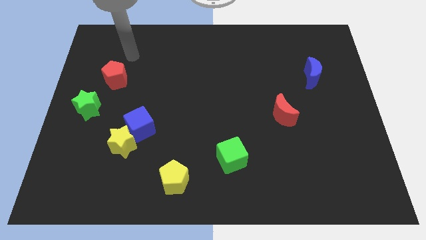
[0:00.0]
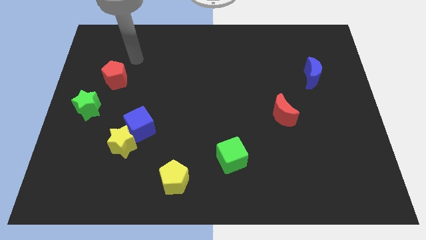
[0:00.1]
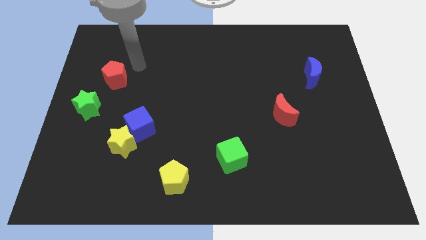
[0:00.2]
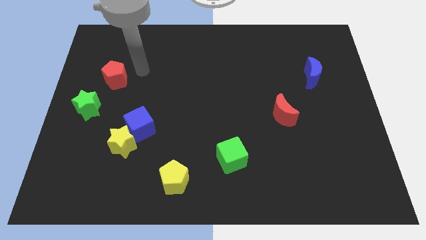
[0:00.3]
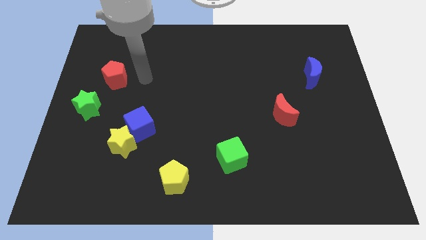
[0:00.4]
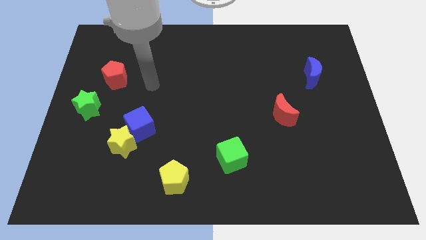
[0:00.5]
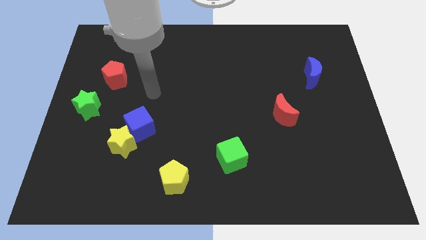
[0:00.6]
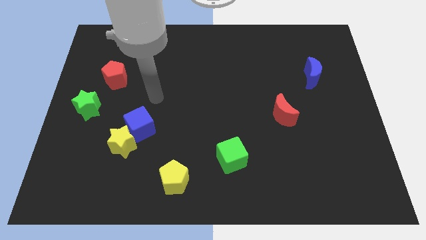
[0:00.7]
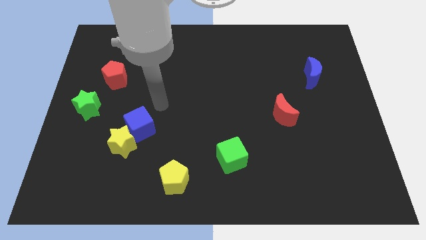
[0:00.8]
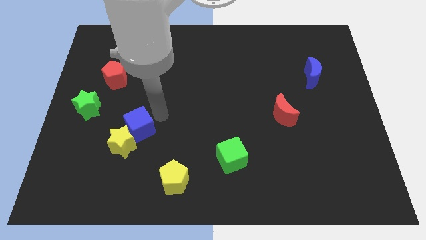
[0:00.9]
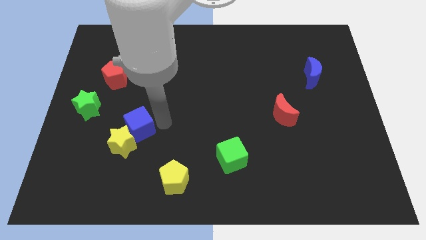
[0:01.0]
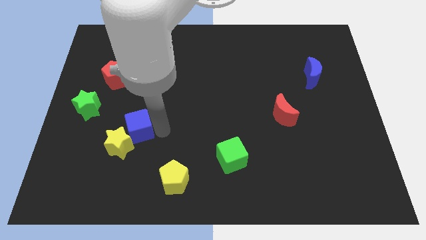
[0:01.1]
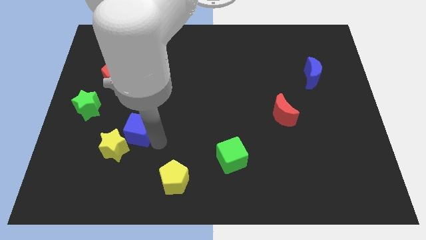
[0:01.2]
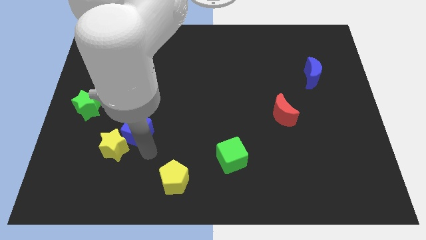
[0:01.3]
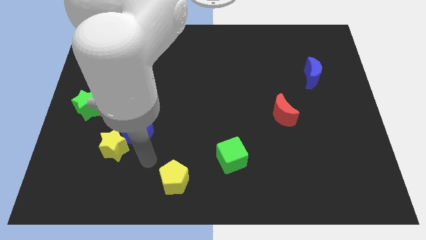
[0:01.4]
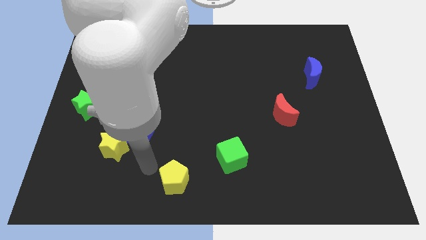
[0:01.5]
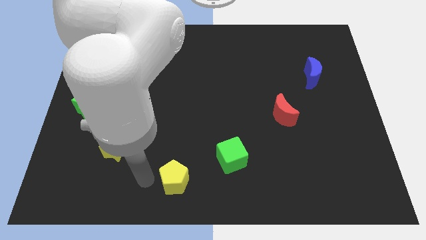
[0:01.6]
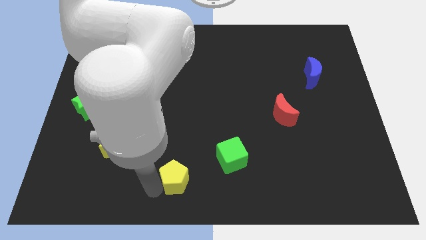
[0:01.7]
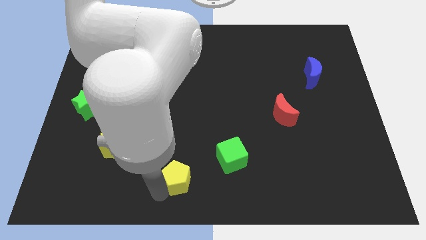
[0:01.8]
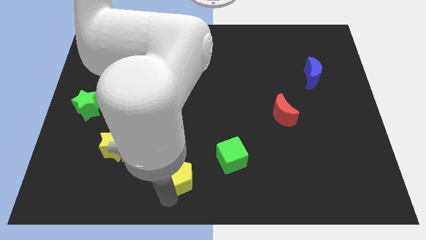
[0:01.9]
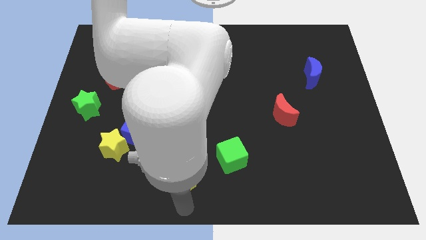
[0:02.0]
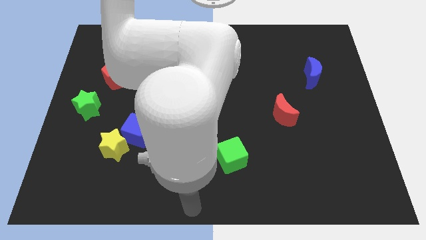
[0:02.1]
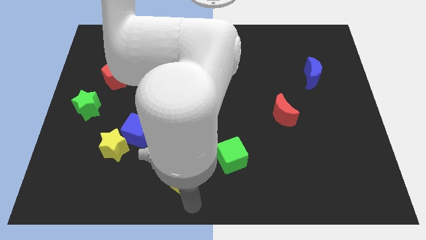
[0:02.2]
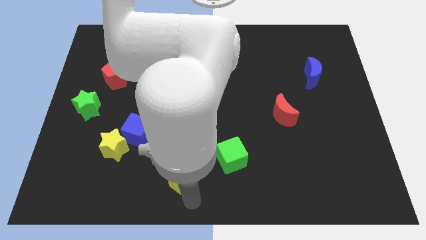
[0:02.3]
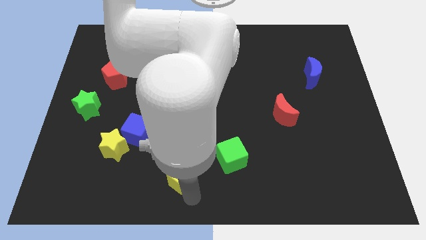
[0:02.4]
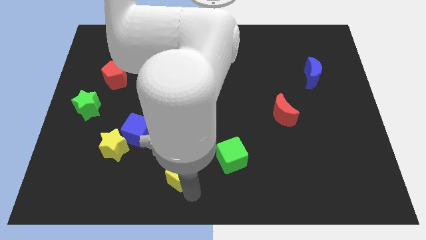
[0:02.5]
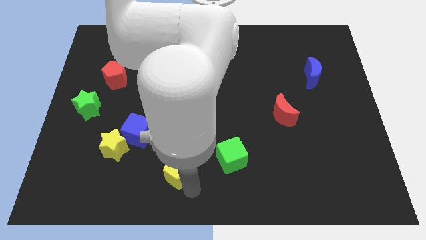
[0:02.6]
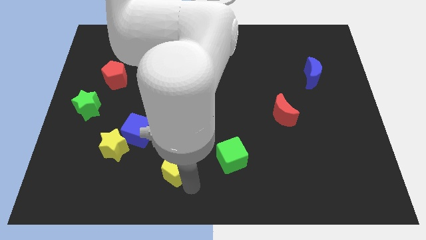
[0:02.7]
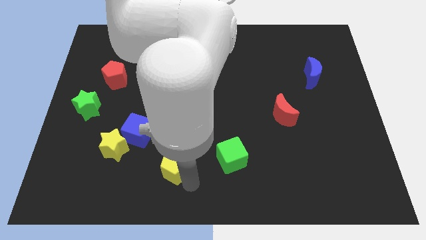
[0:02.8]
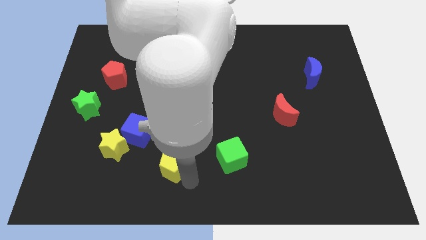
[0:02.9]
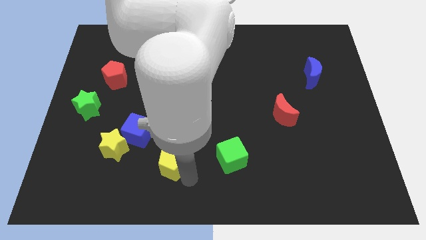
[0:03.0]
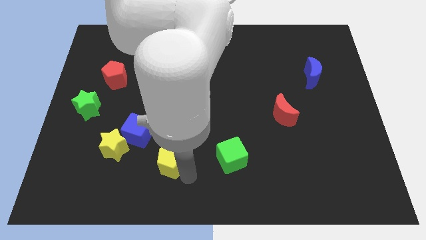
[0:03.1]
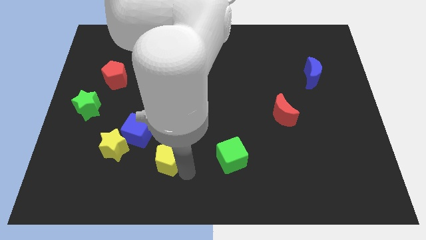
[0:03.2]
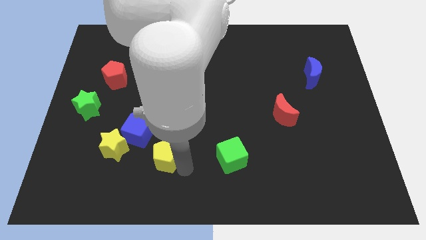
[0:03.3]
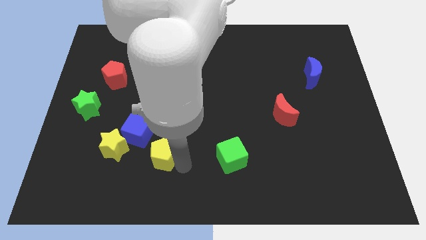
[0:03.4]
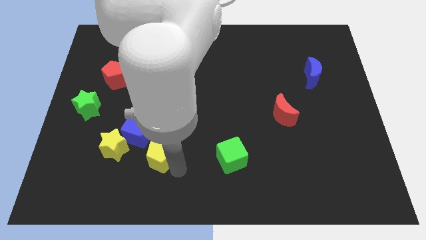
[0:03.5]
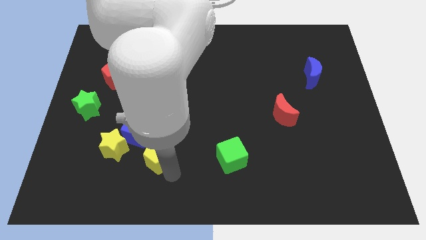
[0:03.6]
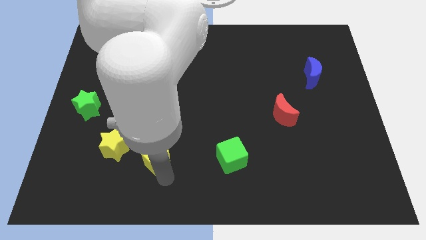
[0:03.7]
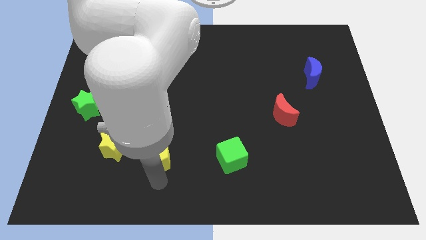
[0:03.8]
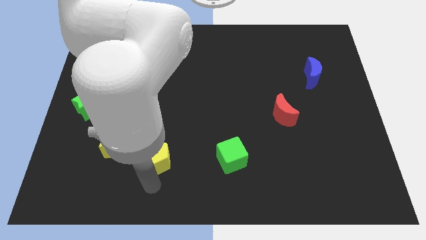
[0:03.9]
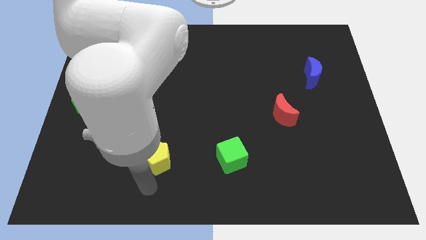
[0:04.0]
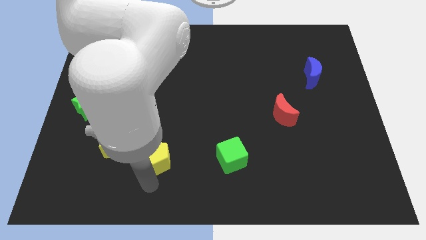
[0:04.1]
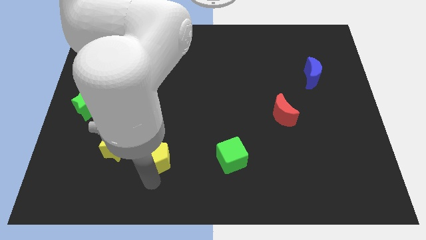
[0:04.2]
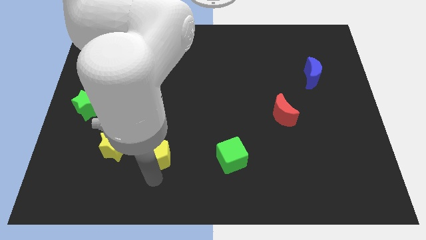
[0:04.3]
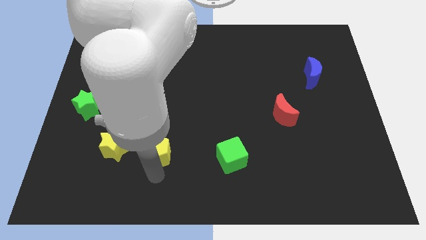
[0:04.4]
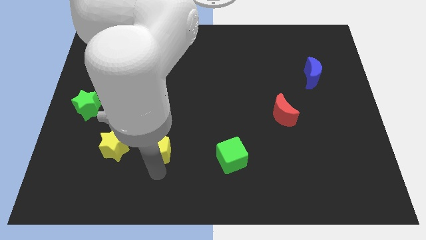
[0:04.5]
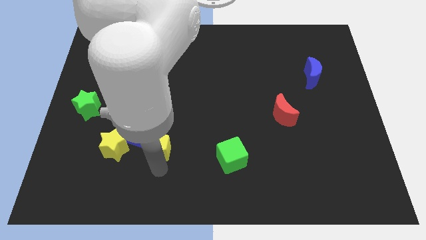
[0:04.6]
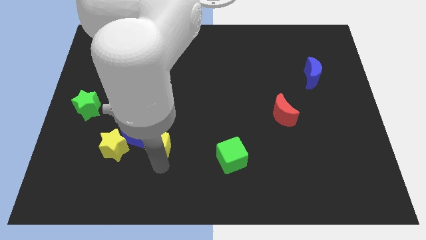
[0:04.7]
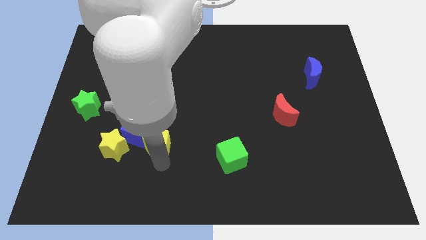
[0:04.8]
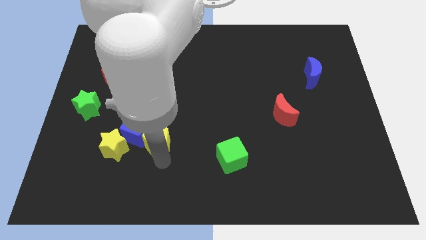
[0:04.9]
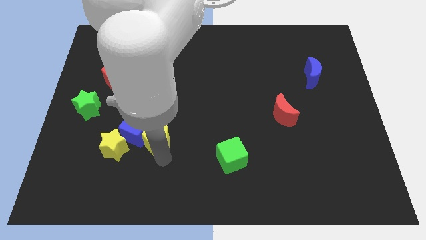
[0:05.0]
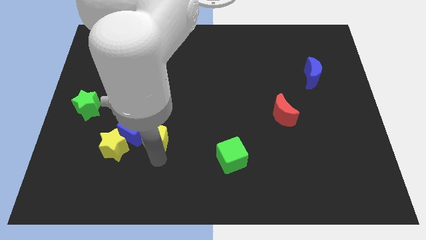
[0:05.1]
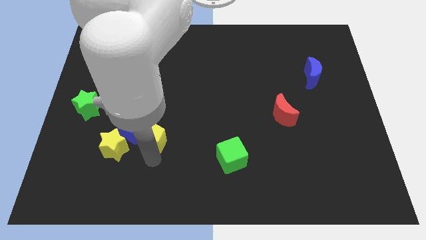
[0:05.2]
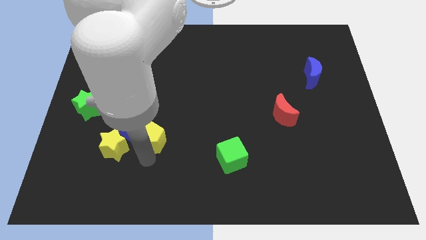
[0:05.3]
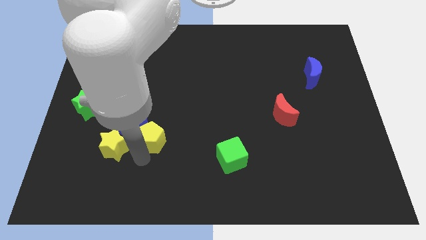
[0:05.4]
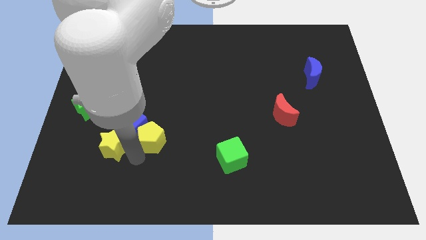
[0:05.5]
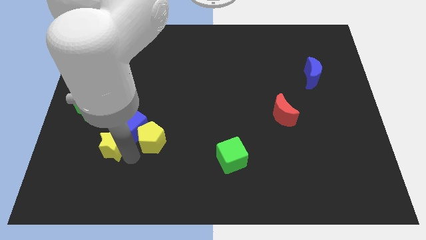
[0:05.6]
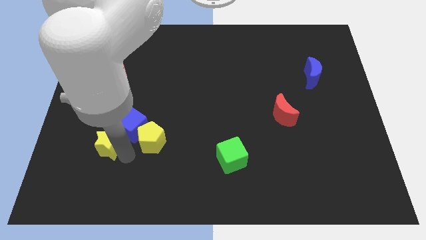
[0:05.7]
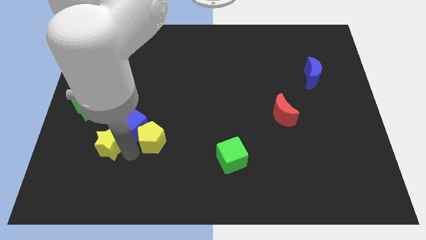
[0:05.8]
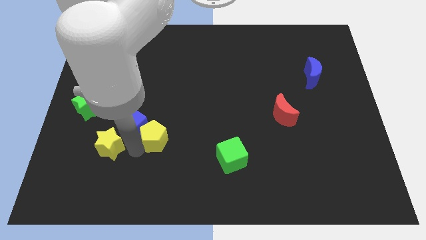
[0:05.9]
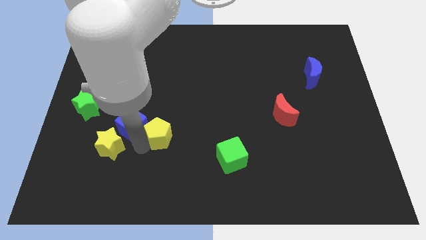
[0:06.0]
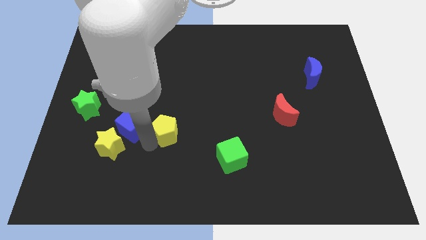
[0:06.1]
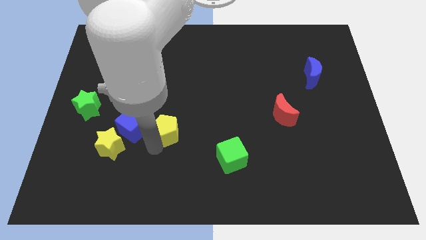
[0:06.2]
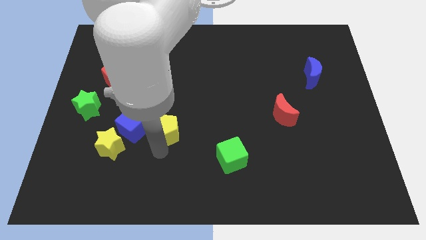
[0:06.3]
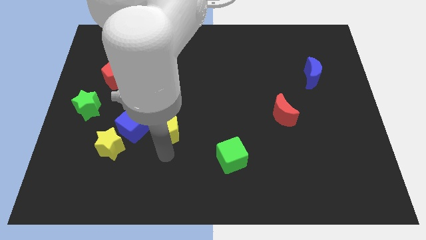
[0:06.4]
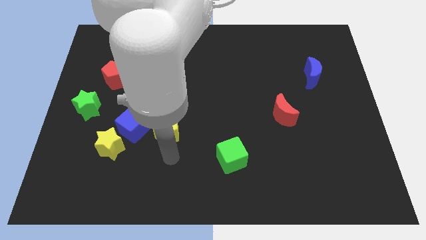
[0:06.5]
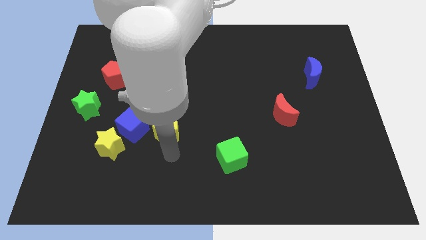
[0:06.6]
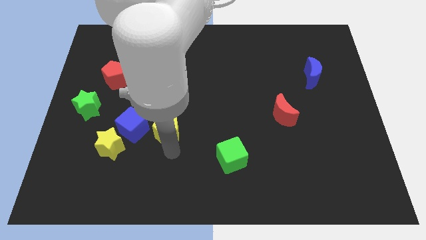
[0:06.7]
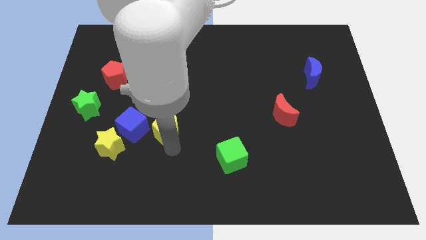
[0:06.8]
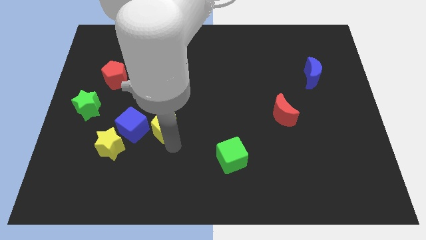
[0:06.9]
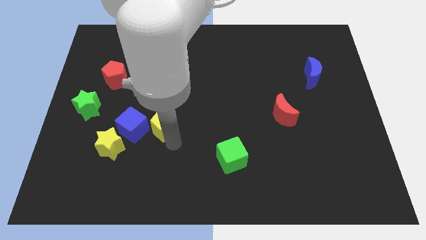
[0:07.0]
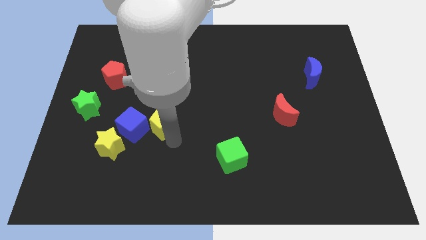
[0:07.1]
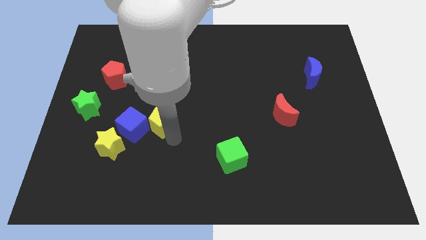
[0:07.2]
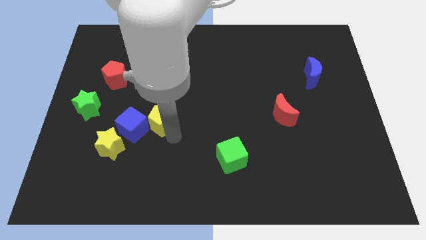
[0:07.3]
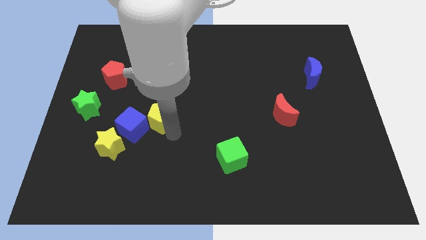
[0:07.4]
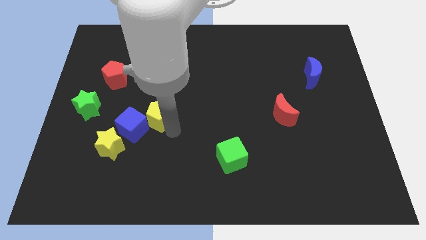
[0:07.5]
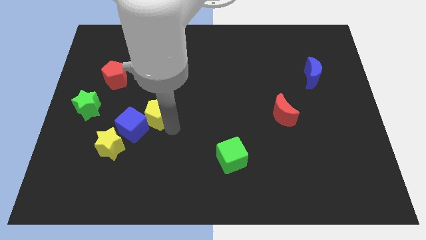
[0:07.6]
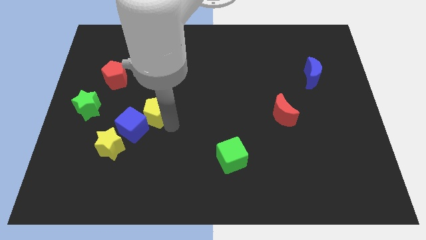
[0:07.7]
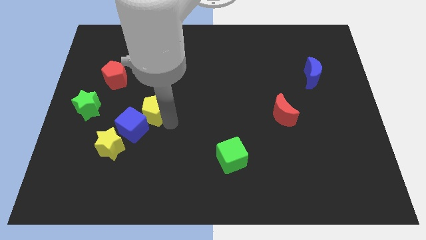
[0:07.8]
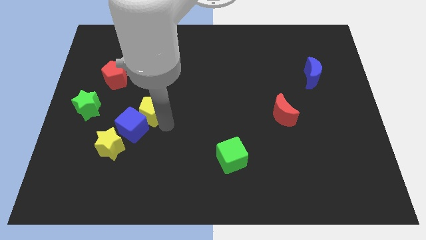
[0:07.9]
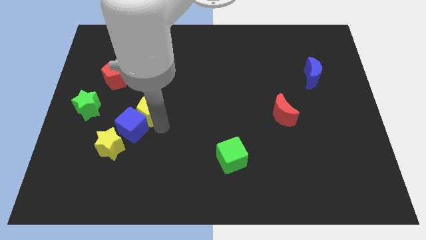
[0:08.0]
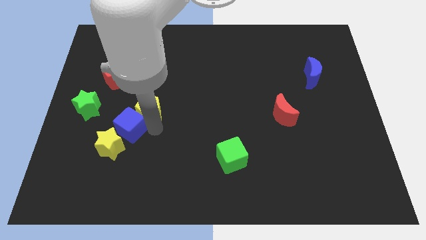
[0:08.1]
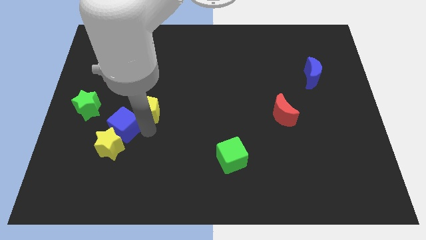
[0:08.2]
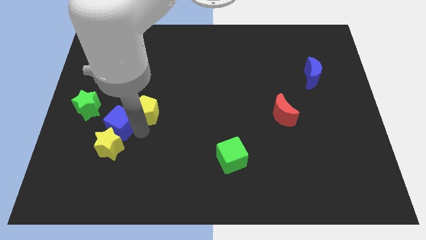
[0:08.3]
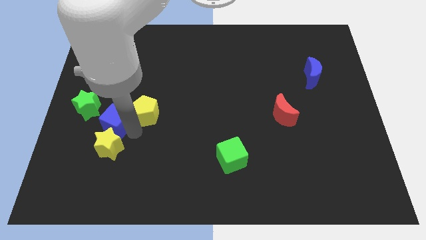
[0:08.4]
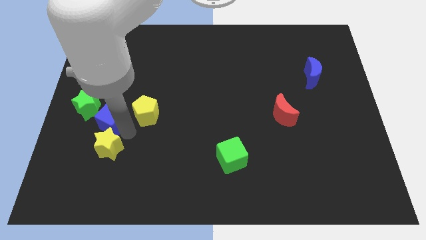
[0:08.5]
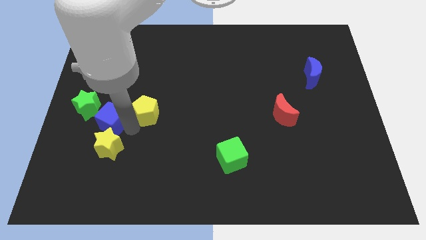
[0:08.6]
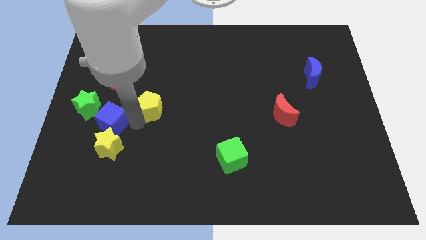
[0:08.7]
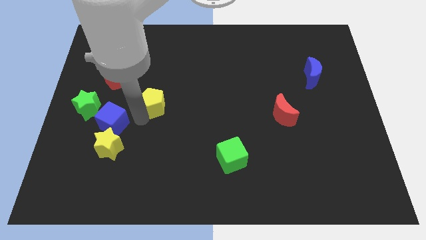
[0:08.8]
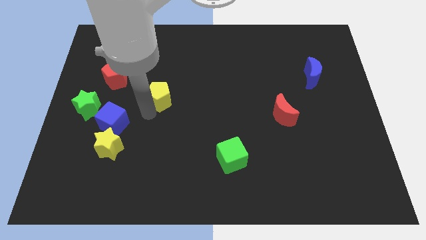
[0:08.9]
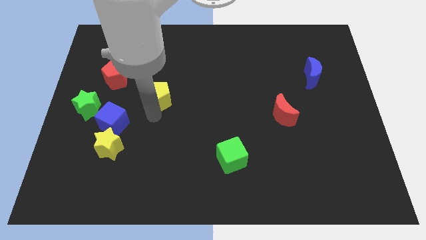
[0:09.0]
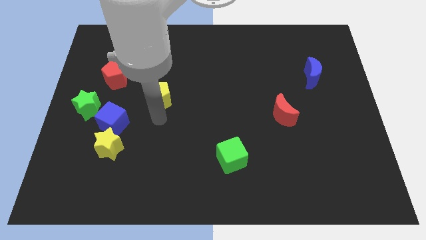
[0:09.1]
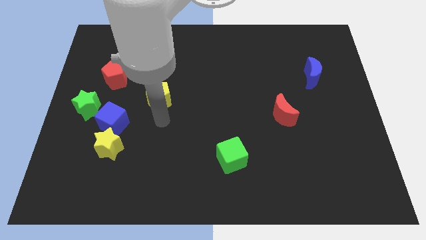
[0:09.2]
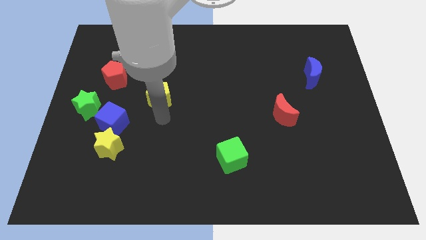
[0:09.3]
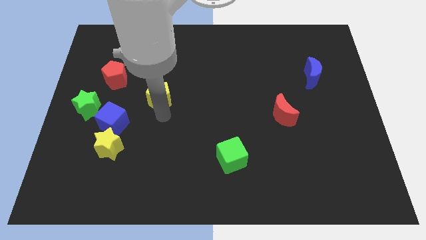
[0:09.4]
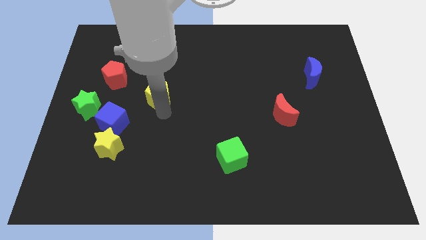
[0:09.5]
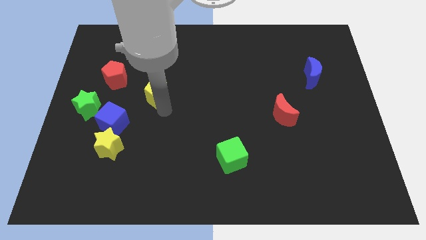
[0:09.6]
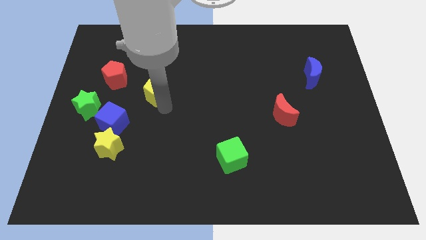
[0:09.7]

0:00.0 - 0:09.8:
put the yellow pentagon to the right side of the red pentagon
